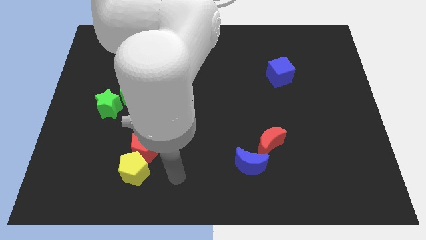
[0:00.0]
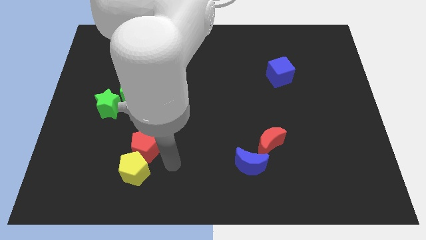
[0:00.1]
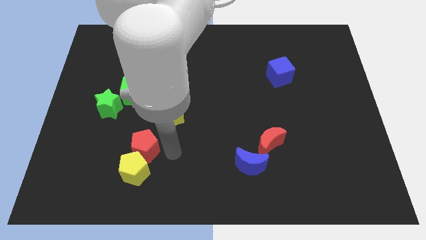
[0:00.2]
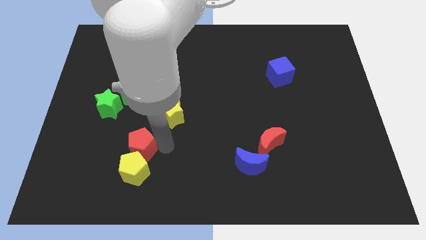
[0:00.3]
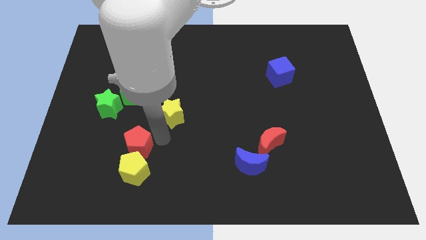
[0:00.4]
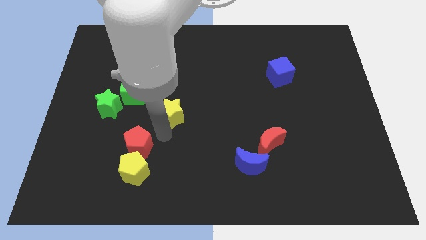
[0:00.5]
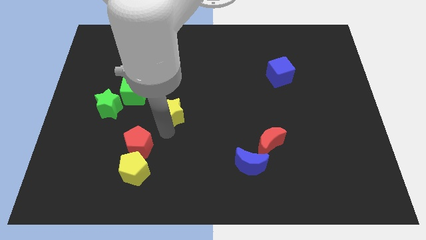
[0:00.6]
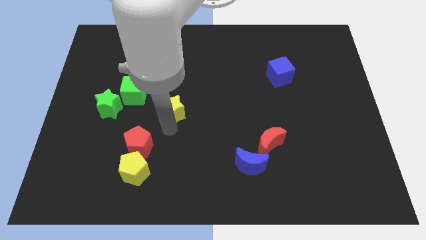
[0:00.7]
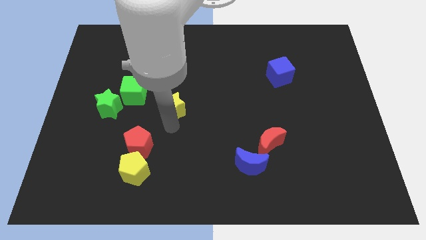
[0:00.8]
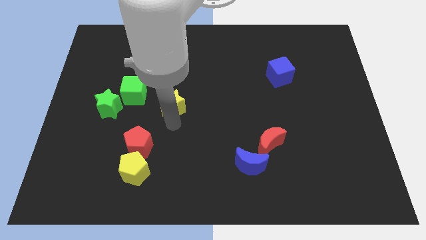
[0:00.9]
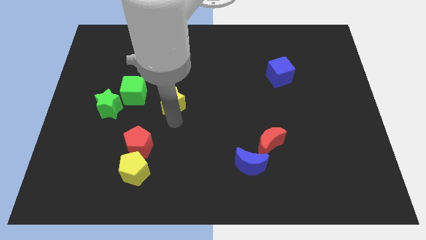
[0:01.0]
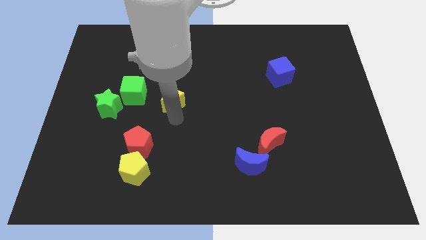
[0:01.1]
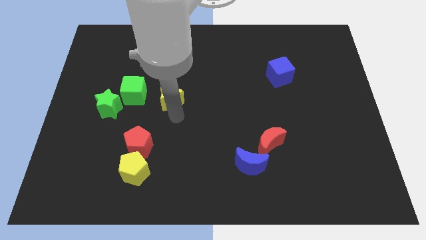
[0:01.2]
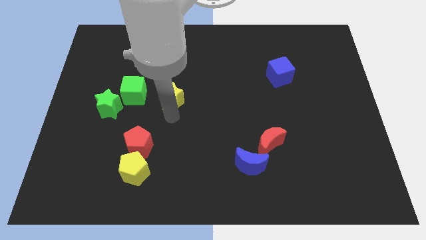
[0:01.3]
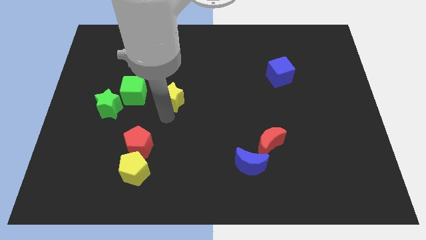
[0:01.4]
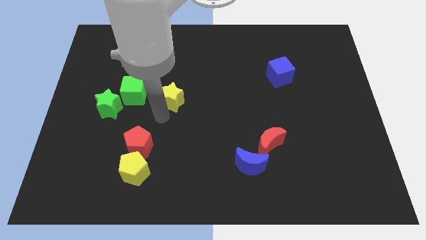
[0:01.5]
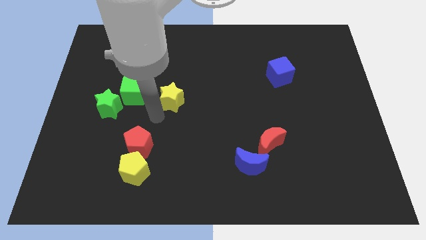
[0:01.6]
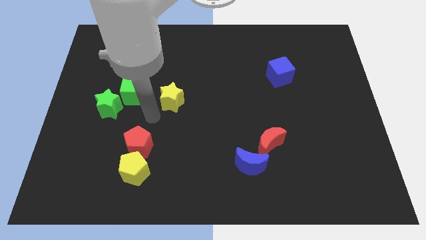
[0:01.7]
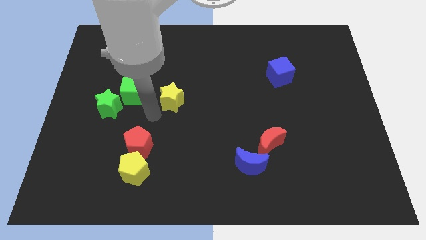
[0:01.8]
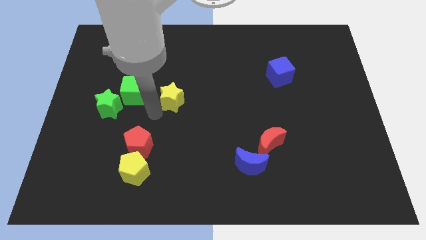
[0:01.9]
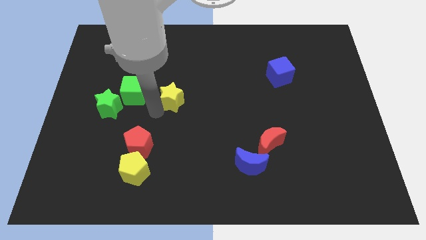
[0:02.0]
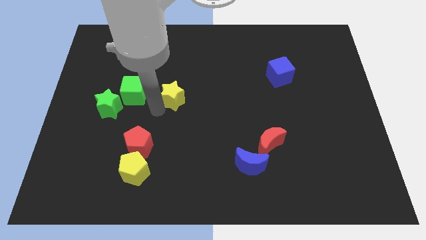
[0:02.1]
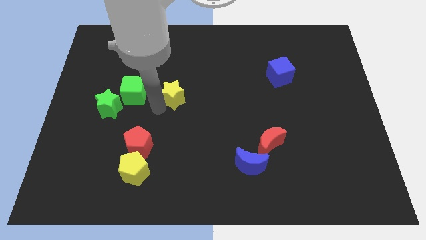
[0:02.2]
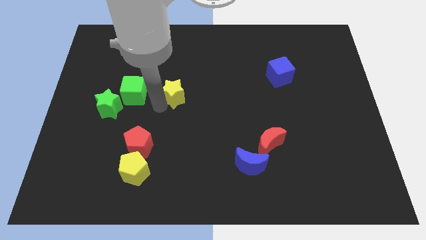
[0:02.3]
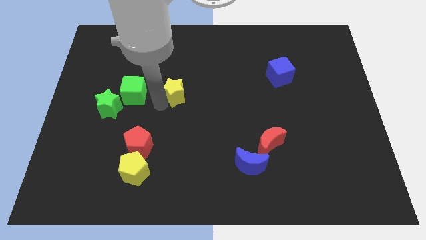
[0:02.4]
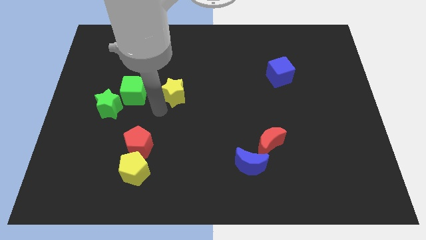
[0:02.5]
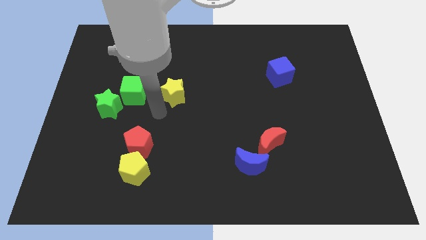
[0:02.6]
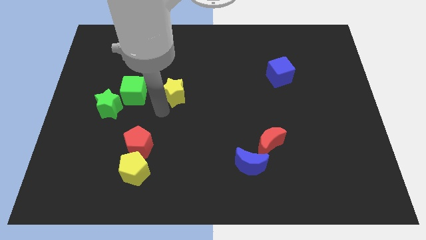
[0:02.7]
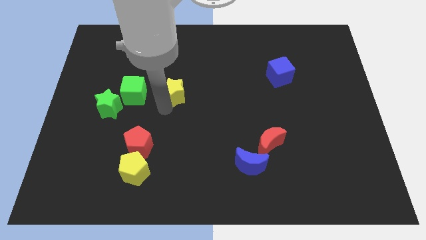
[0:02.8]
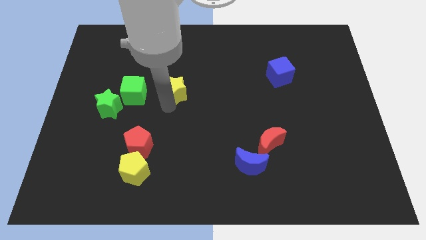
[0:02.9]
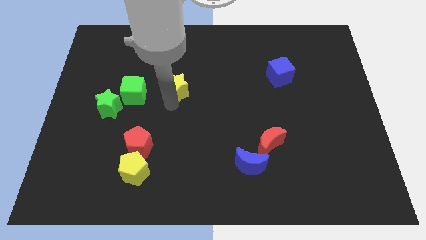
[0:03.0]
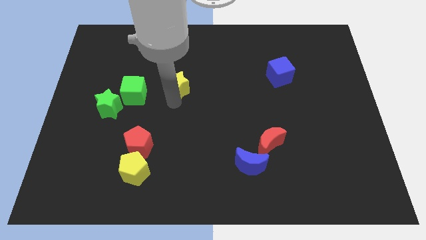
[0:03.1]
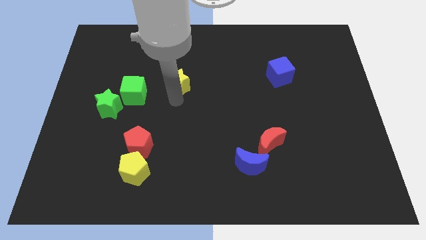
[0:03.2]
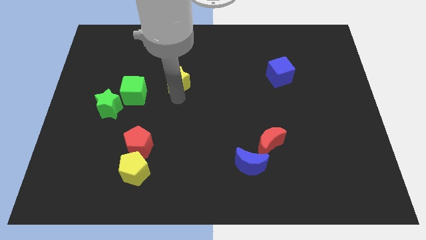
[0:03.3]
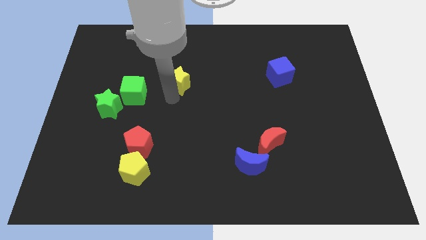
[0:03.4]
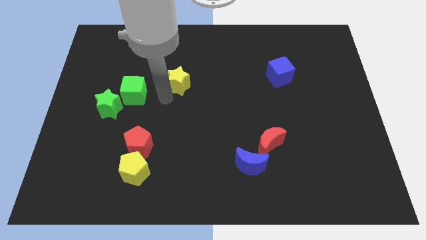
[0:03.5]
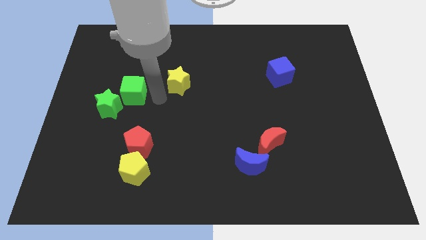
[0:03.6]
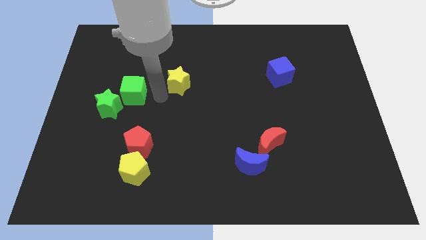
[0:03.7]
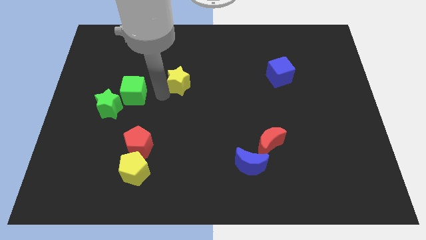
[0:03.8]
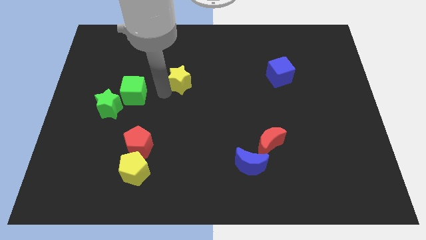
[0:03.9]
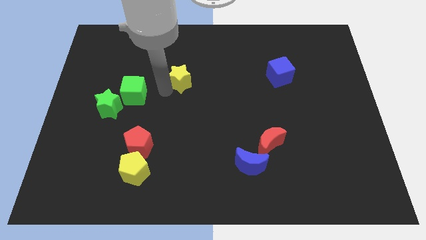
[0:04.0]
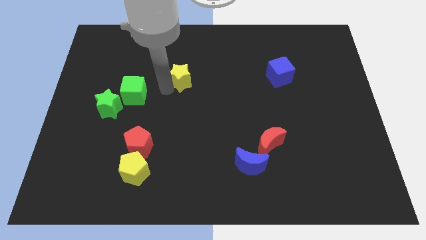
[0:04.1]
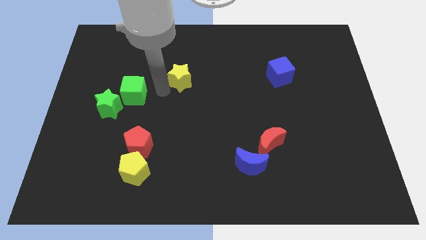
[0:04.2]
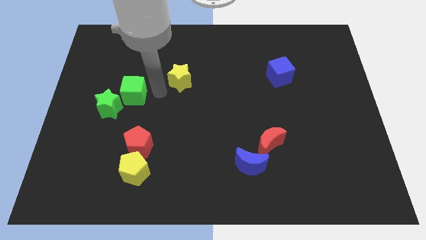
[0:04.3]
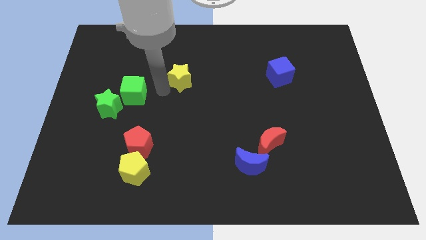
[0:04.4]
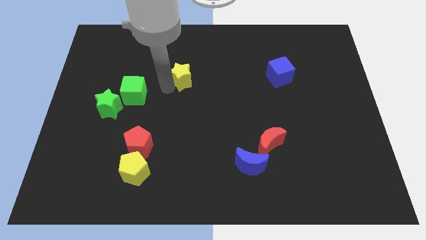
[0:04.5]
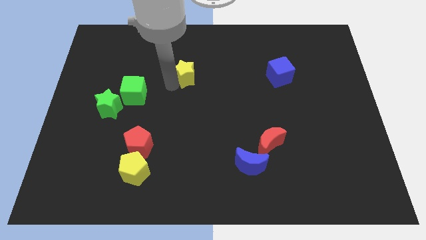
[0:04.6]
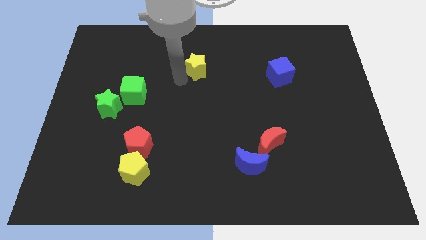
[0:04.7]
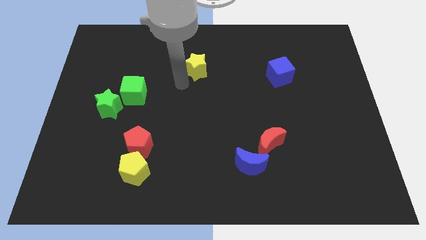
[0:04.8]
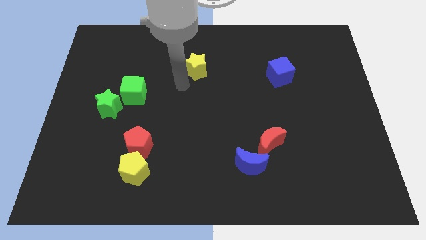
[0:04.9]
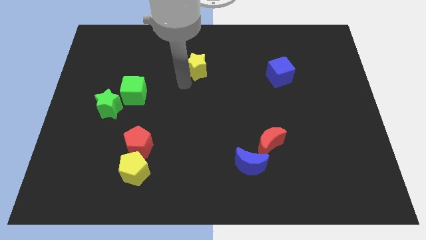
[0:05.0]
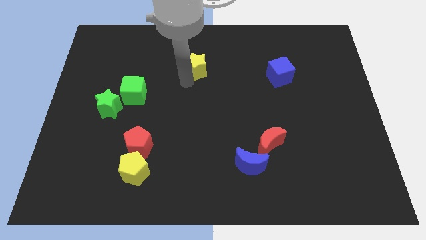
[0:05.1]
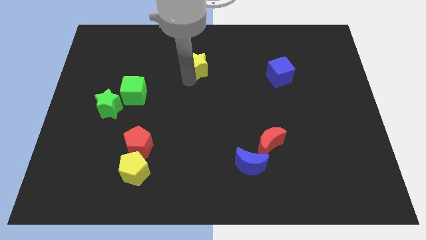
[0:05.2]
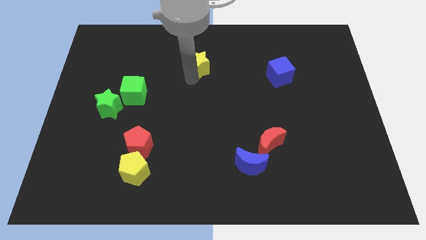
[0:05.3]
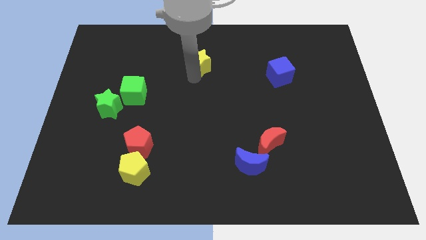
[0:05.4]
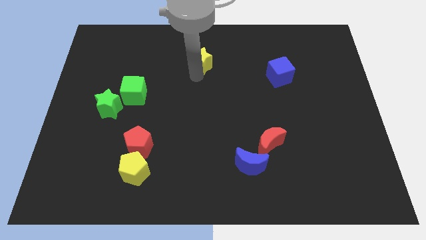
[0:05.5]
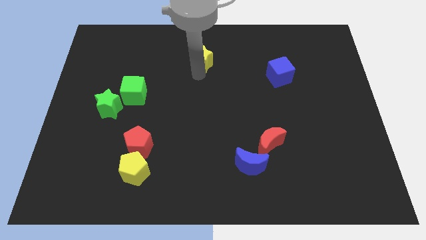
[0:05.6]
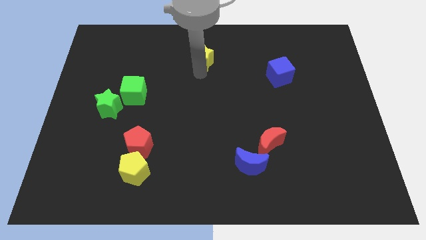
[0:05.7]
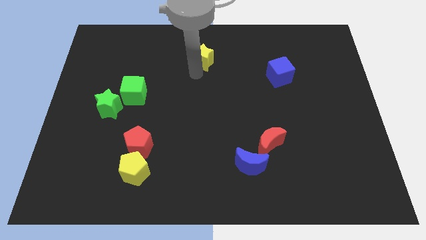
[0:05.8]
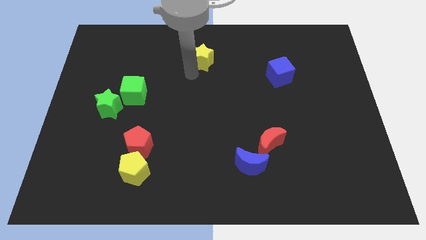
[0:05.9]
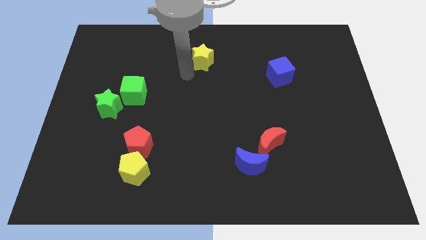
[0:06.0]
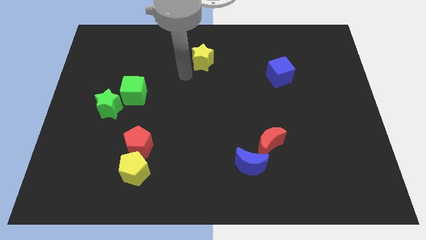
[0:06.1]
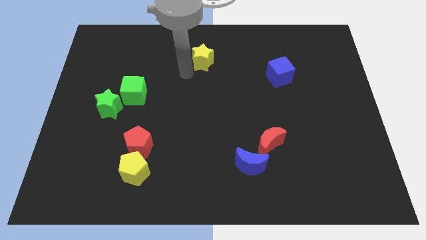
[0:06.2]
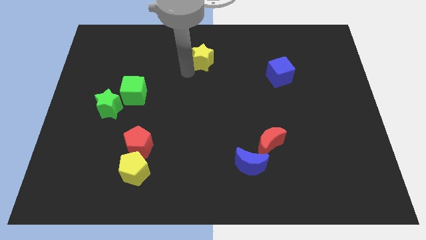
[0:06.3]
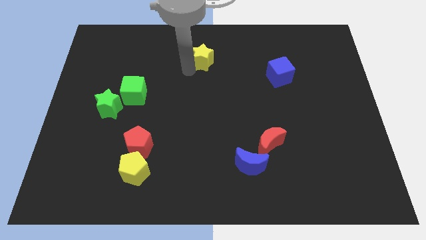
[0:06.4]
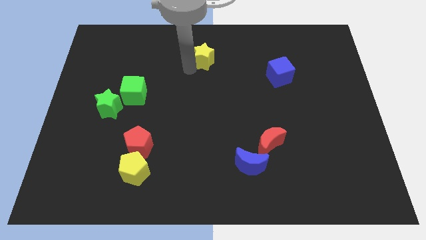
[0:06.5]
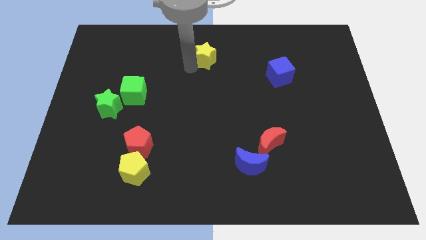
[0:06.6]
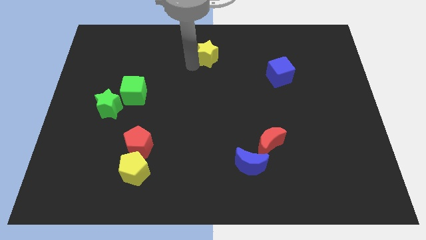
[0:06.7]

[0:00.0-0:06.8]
move the yellow star to the top side
